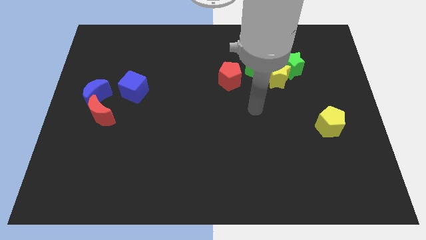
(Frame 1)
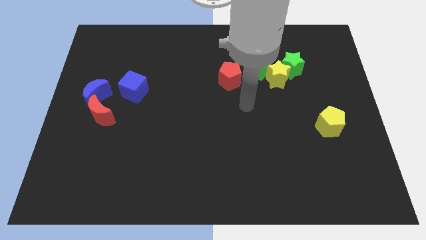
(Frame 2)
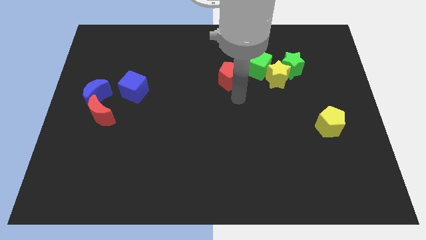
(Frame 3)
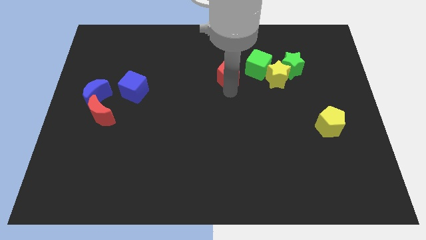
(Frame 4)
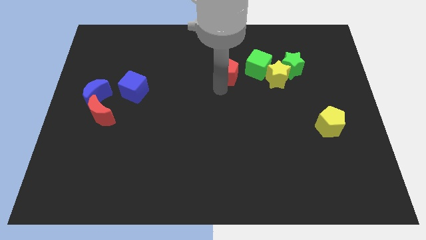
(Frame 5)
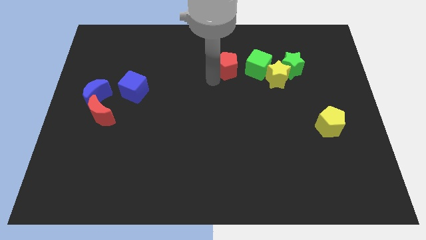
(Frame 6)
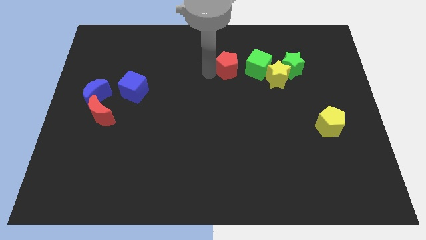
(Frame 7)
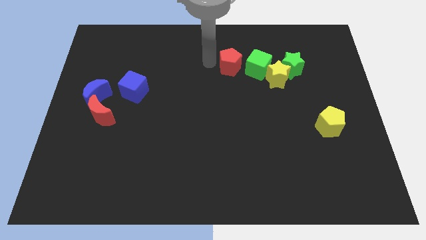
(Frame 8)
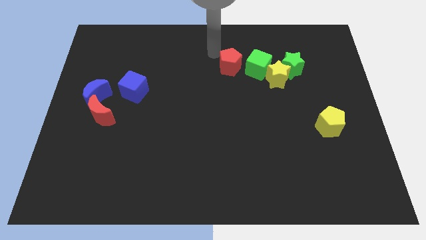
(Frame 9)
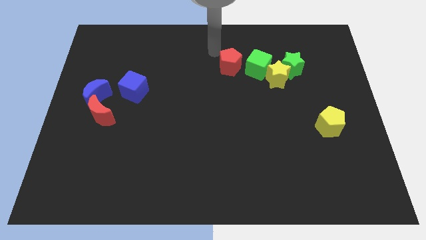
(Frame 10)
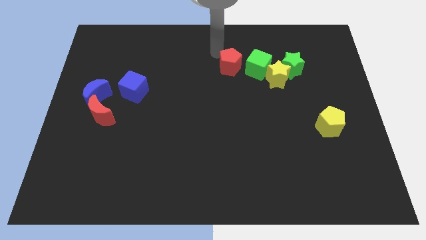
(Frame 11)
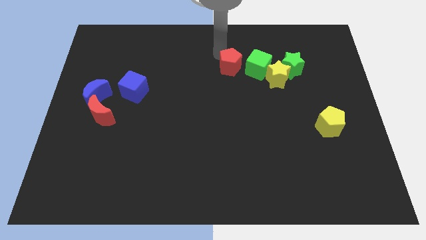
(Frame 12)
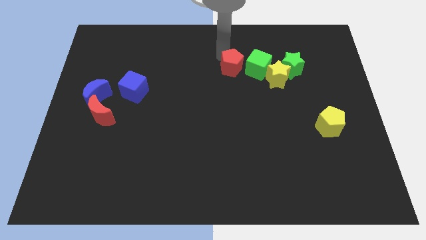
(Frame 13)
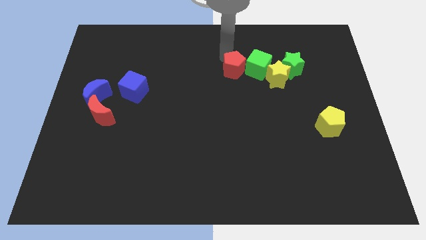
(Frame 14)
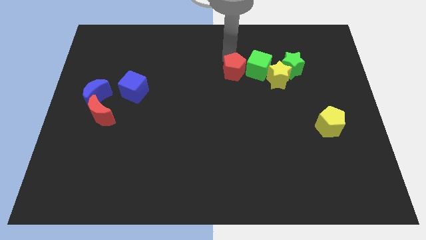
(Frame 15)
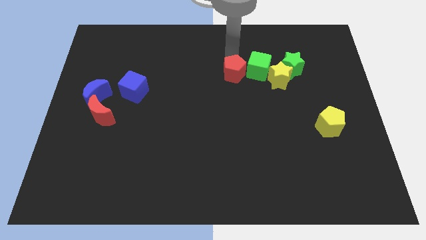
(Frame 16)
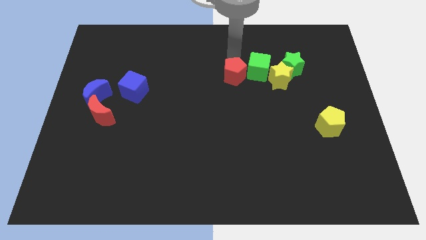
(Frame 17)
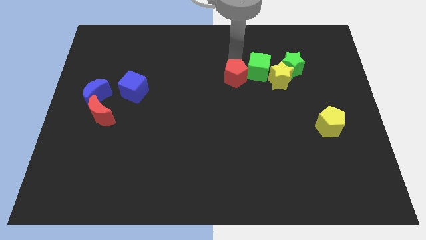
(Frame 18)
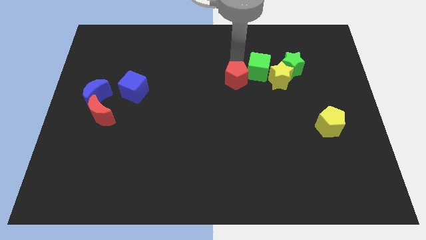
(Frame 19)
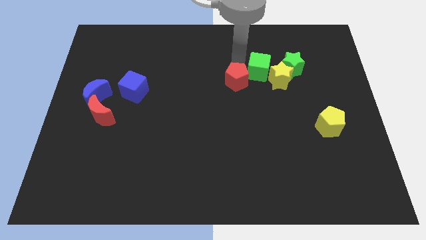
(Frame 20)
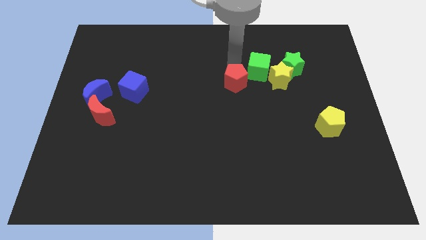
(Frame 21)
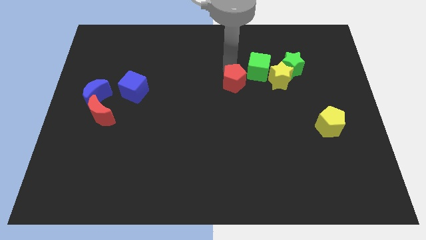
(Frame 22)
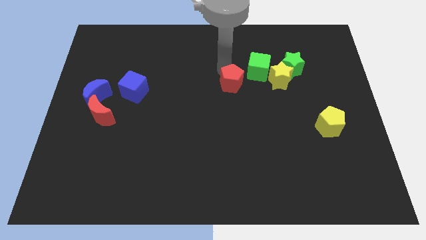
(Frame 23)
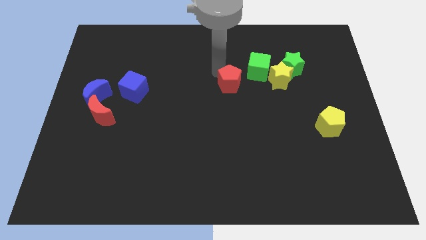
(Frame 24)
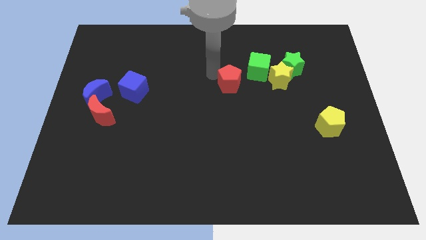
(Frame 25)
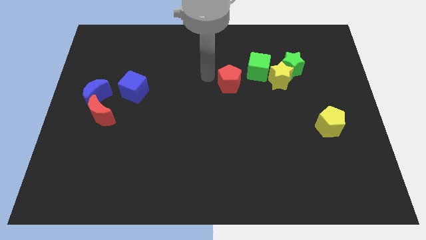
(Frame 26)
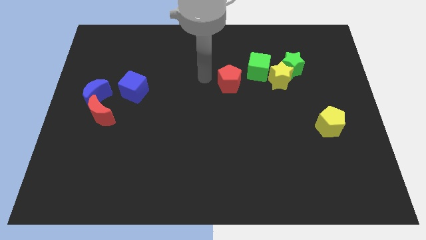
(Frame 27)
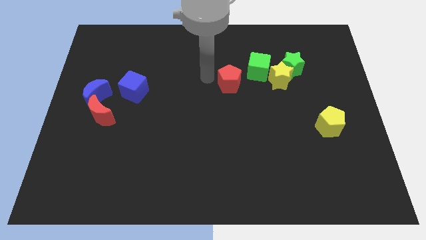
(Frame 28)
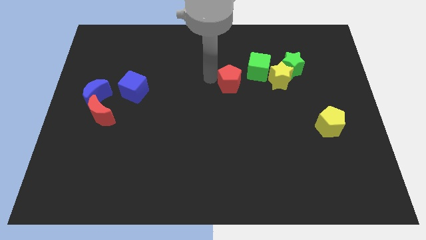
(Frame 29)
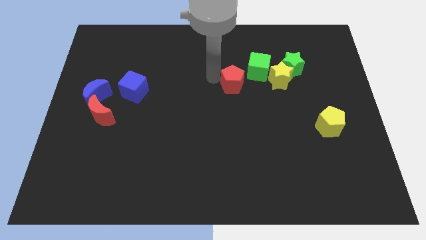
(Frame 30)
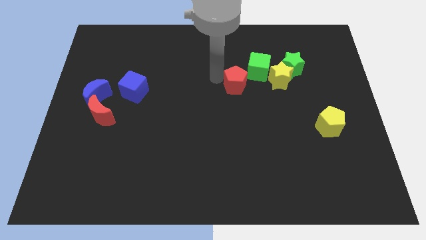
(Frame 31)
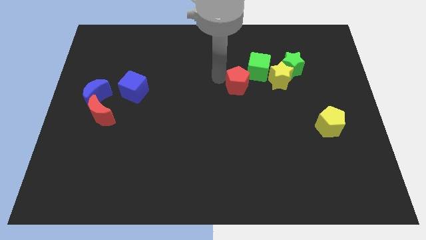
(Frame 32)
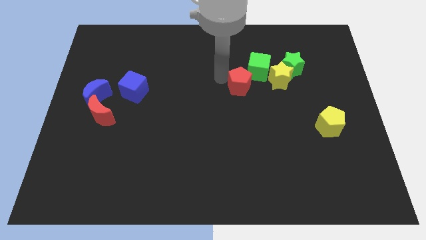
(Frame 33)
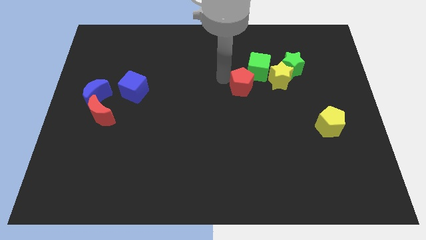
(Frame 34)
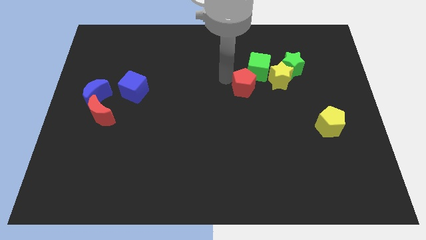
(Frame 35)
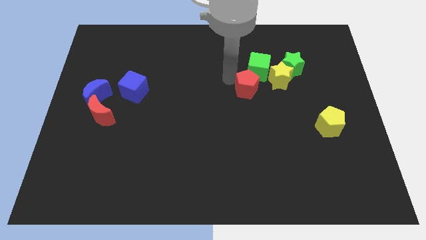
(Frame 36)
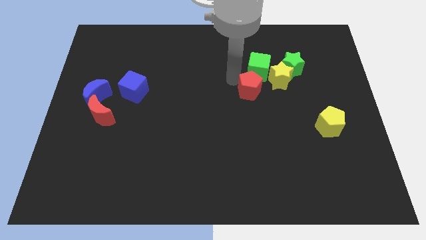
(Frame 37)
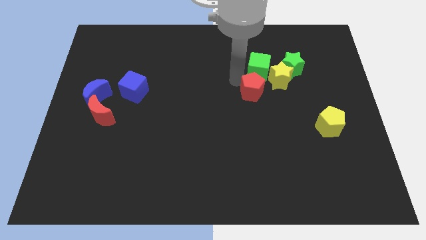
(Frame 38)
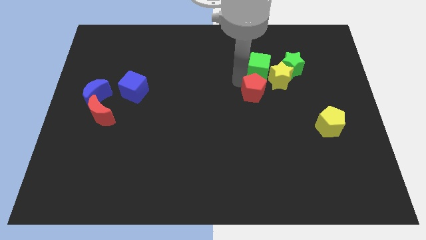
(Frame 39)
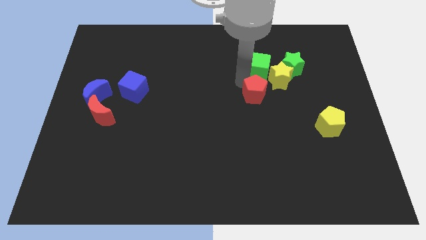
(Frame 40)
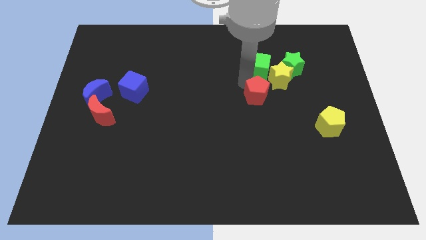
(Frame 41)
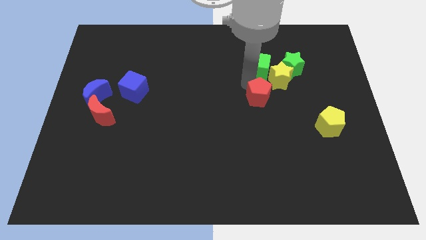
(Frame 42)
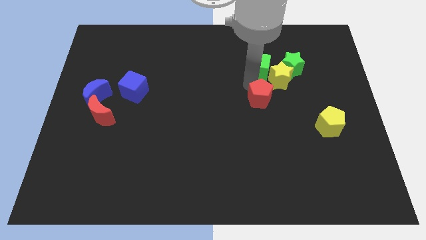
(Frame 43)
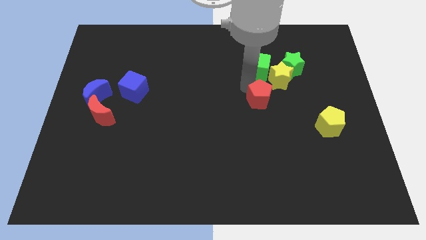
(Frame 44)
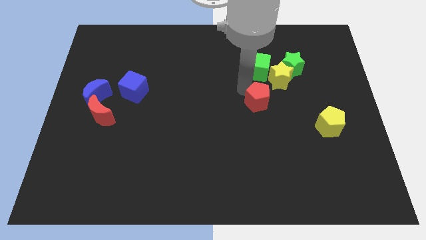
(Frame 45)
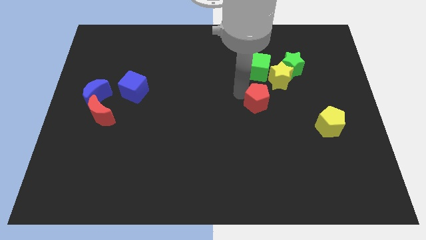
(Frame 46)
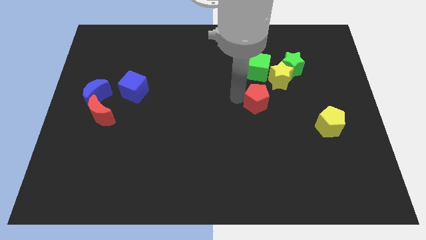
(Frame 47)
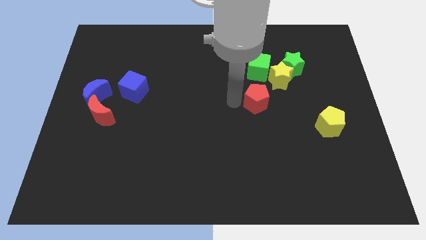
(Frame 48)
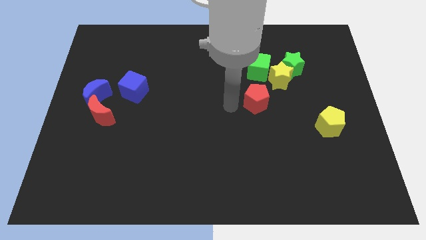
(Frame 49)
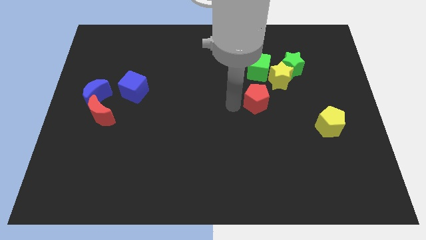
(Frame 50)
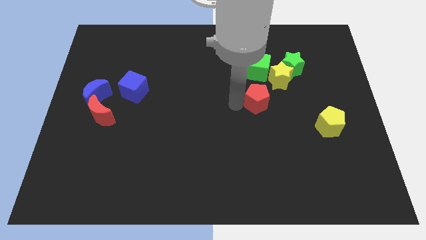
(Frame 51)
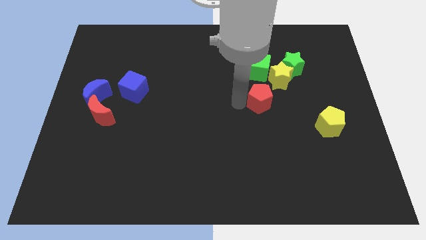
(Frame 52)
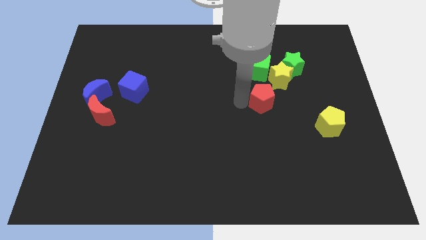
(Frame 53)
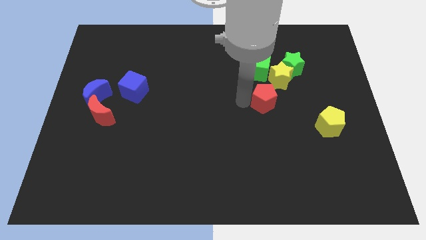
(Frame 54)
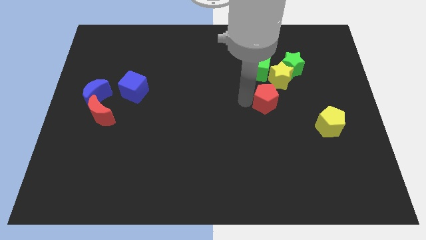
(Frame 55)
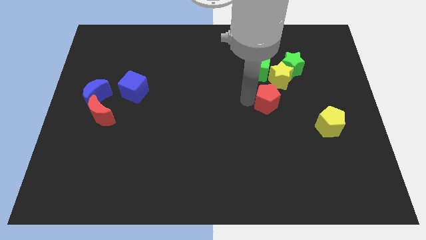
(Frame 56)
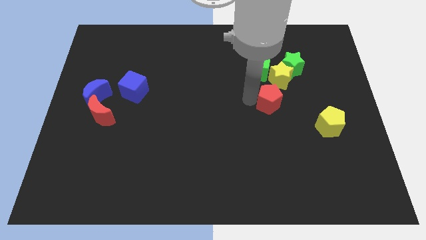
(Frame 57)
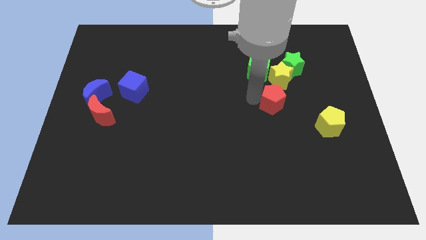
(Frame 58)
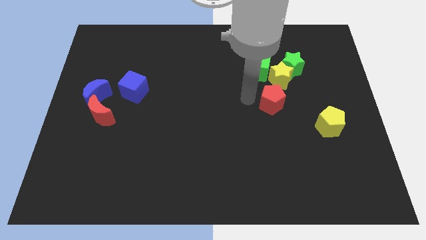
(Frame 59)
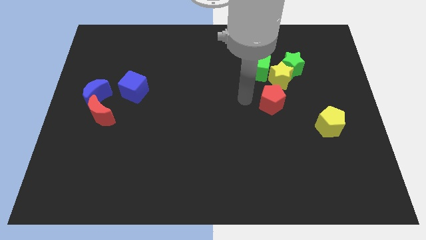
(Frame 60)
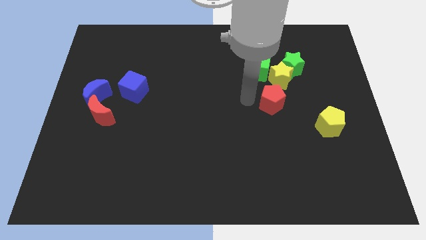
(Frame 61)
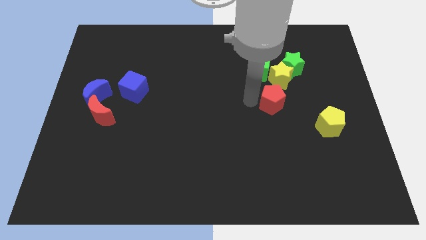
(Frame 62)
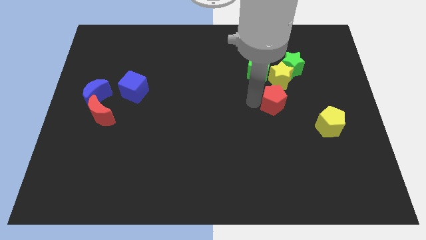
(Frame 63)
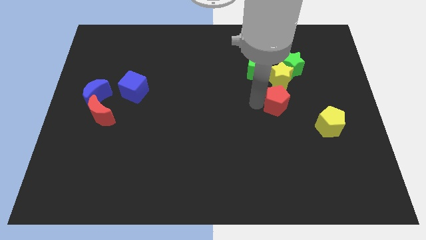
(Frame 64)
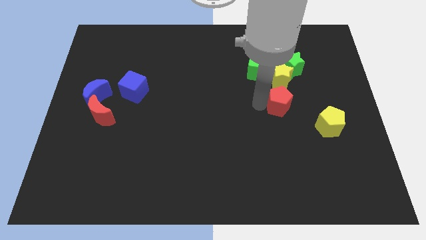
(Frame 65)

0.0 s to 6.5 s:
move the red pentagon to the top left side of the yellow pentagon

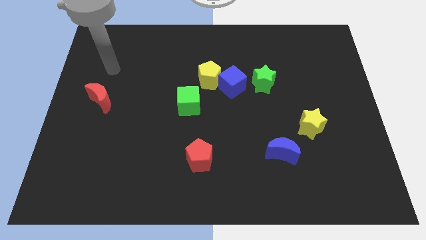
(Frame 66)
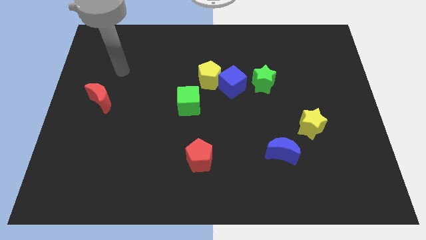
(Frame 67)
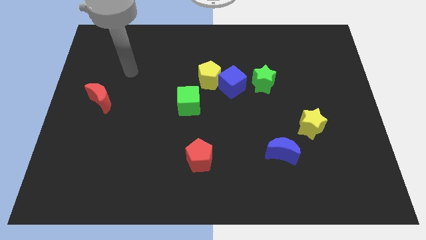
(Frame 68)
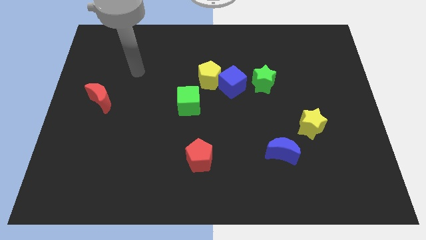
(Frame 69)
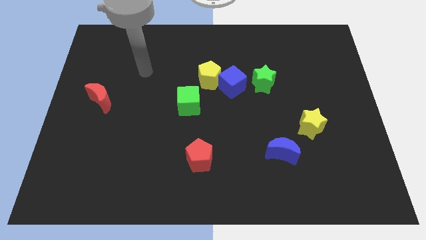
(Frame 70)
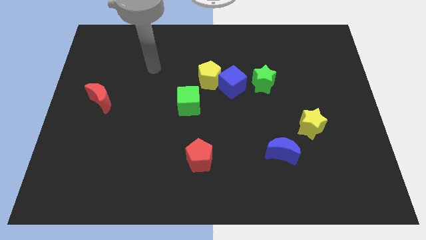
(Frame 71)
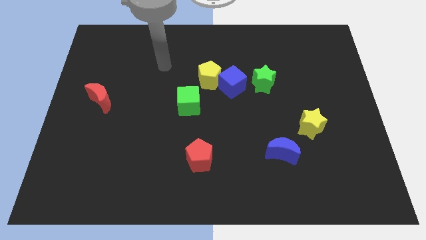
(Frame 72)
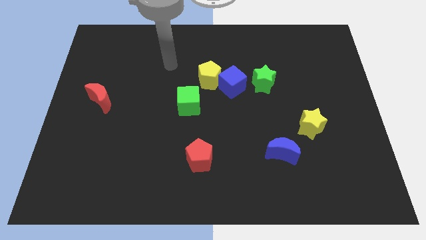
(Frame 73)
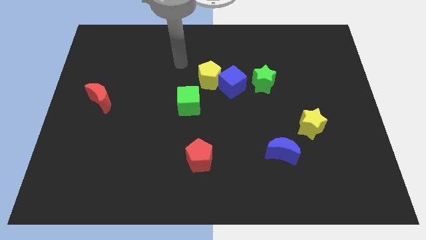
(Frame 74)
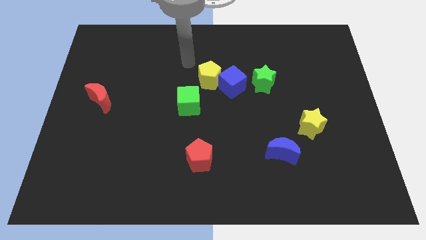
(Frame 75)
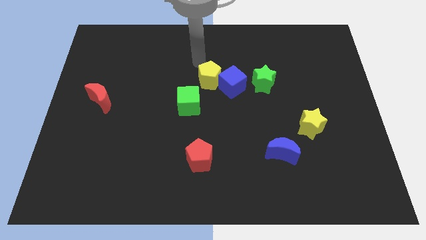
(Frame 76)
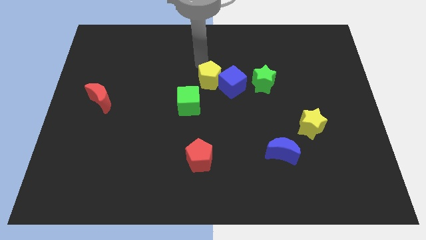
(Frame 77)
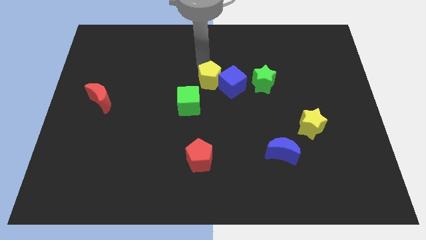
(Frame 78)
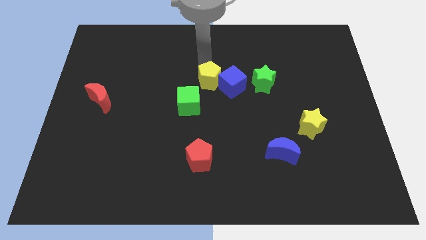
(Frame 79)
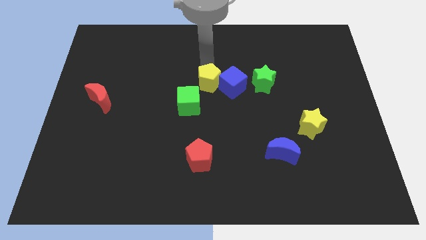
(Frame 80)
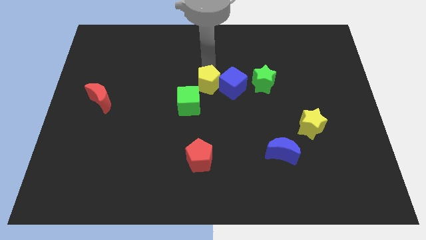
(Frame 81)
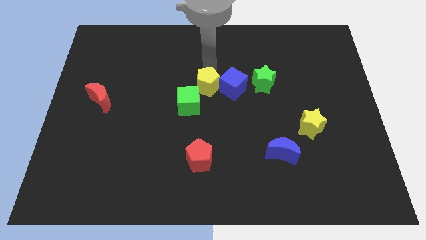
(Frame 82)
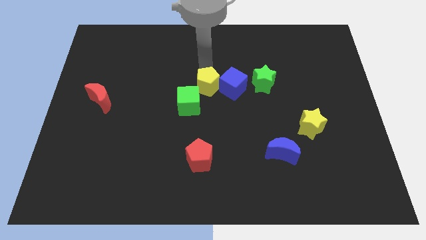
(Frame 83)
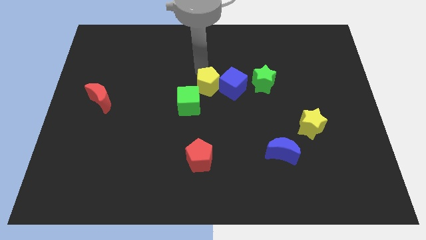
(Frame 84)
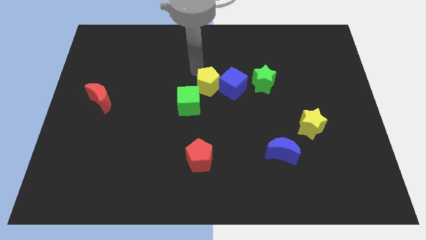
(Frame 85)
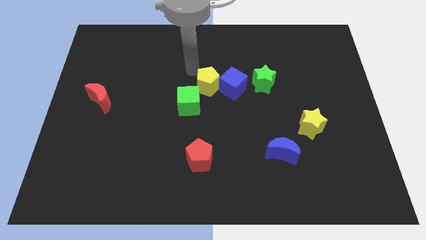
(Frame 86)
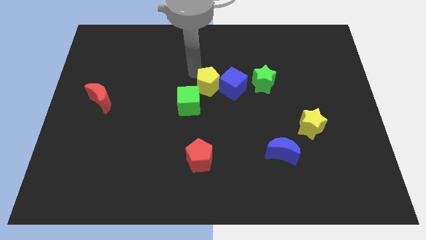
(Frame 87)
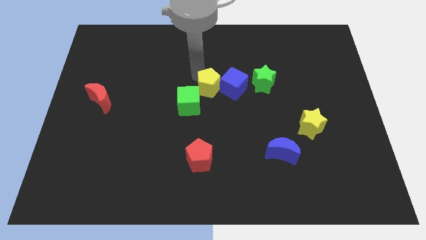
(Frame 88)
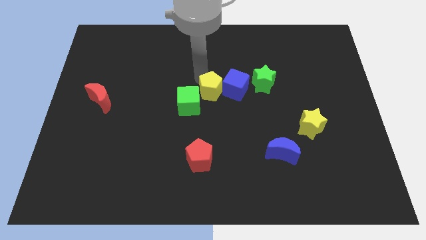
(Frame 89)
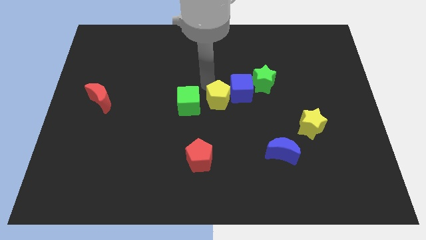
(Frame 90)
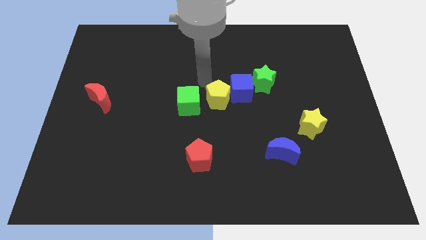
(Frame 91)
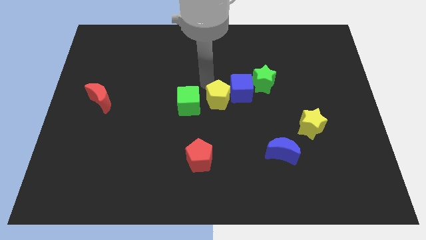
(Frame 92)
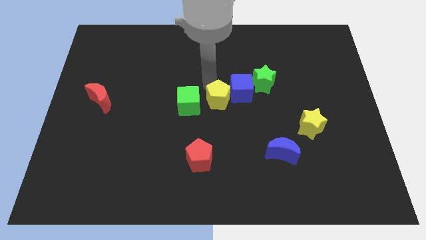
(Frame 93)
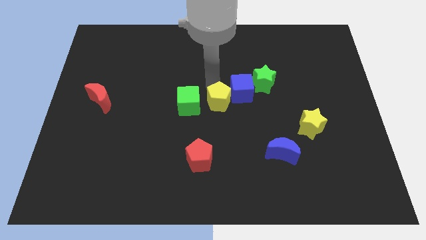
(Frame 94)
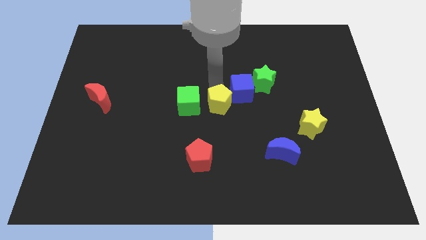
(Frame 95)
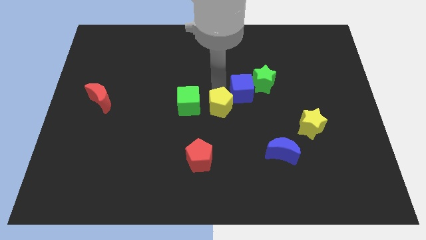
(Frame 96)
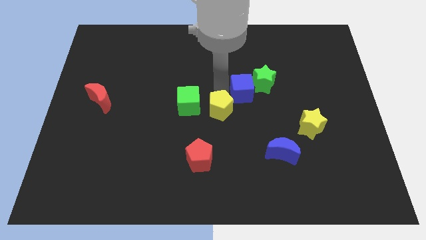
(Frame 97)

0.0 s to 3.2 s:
slide the yellow pentagon to the bottom side of the blue cube
